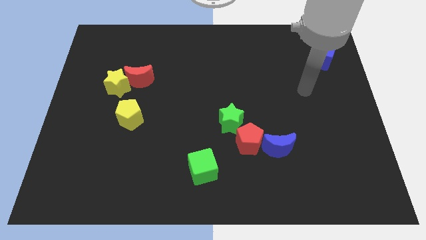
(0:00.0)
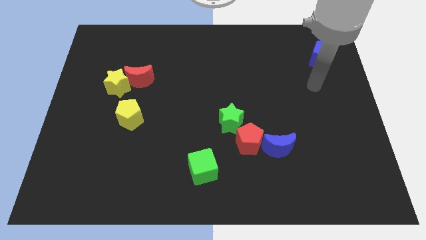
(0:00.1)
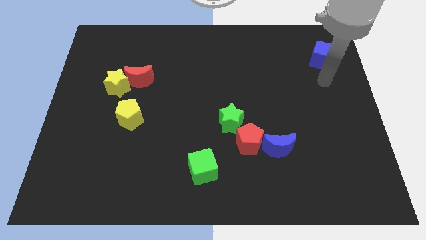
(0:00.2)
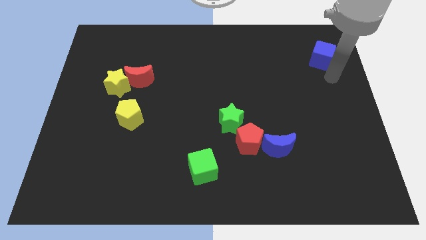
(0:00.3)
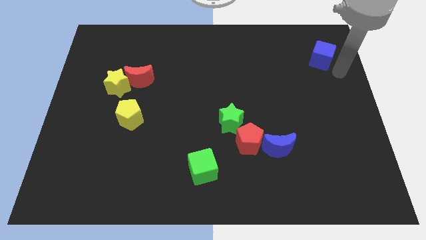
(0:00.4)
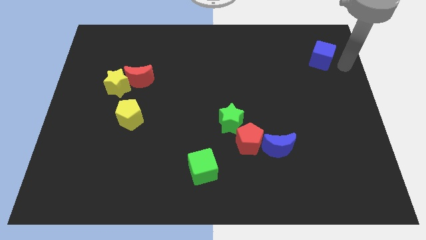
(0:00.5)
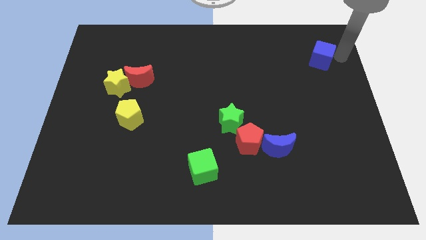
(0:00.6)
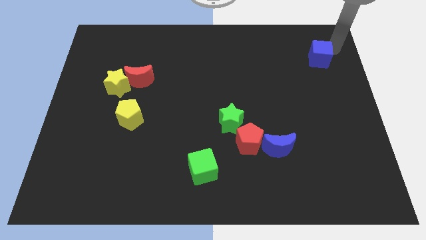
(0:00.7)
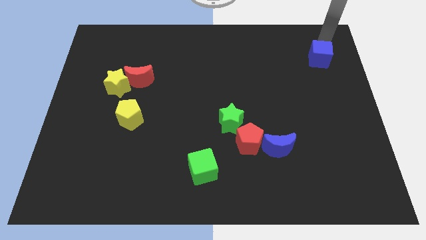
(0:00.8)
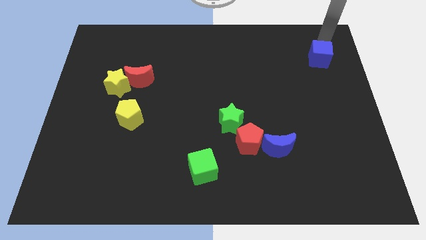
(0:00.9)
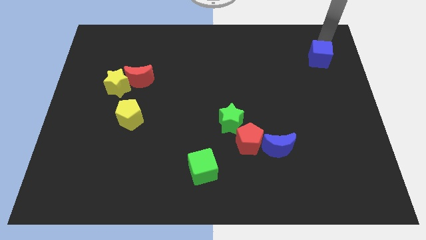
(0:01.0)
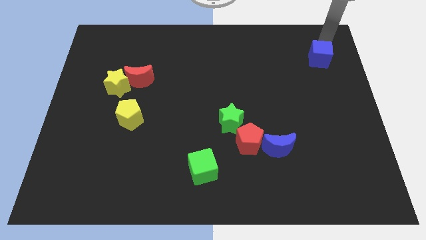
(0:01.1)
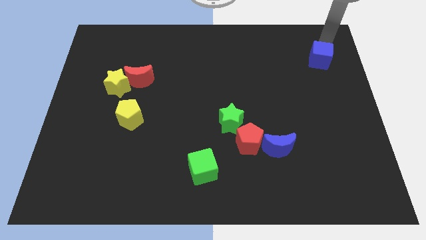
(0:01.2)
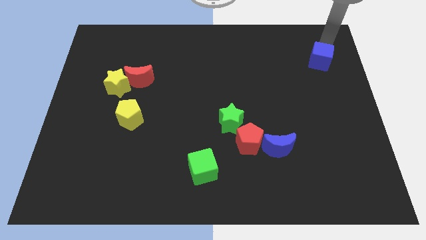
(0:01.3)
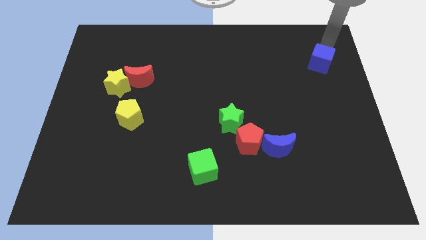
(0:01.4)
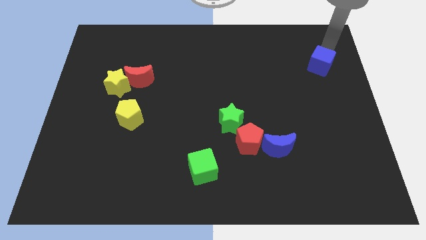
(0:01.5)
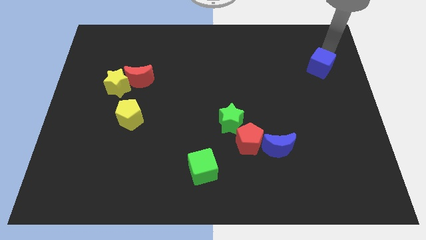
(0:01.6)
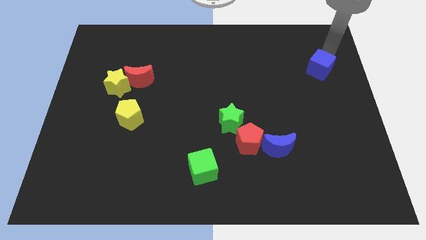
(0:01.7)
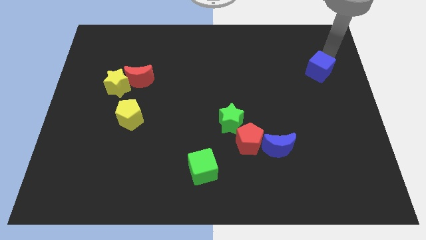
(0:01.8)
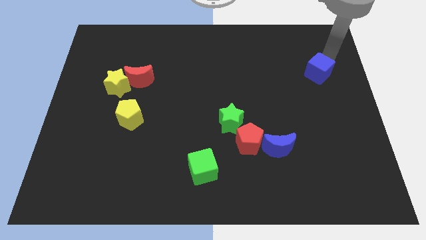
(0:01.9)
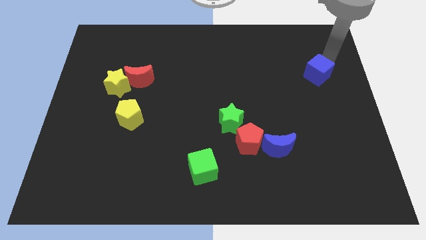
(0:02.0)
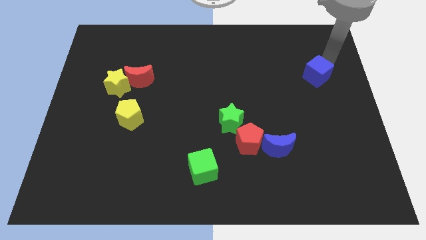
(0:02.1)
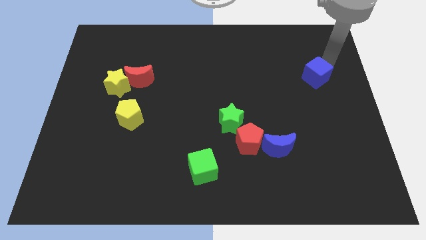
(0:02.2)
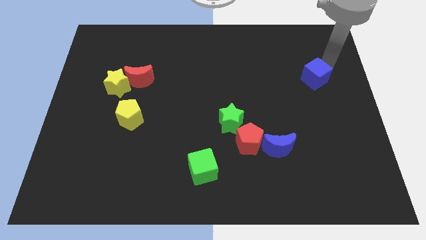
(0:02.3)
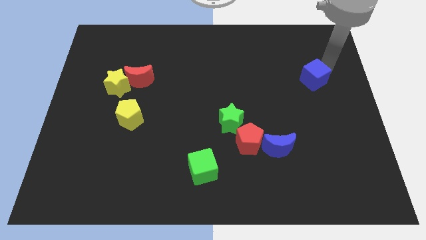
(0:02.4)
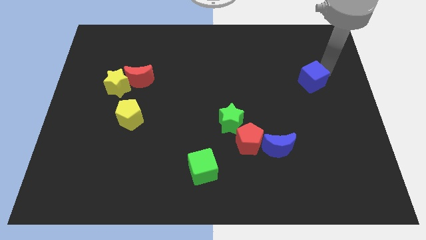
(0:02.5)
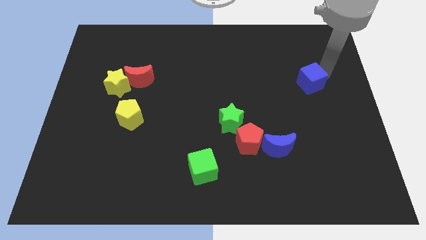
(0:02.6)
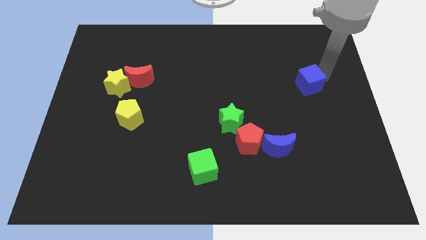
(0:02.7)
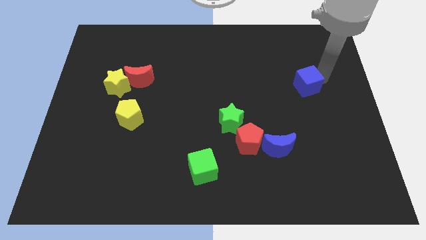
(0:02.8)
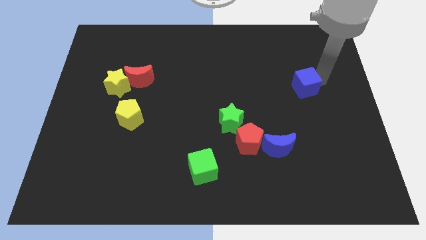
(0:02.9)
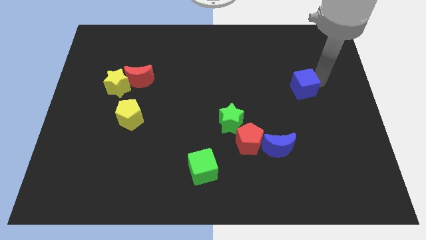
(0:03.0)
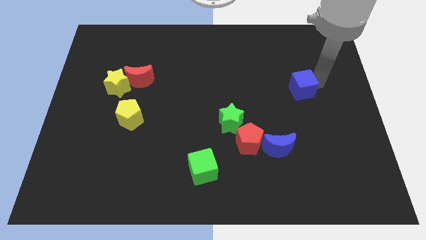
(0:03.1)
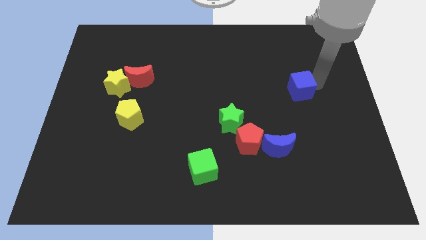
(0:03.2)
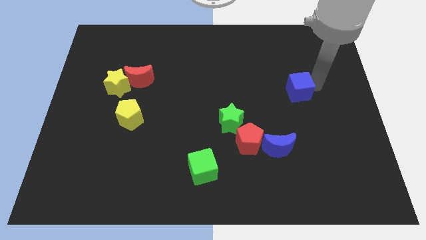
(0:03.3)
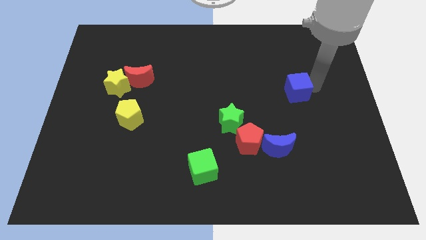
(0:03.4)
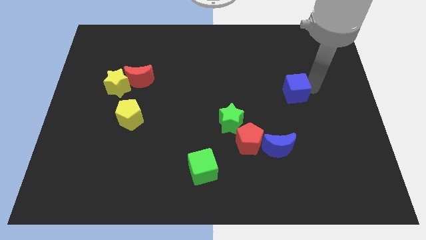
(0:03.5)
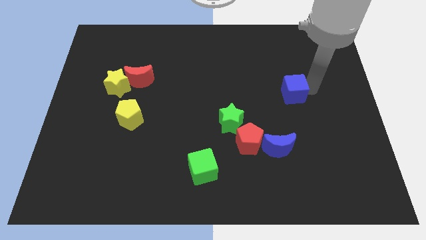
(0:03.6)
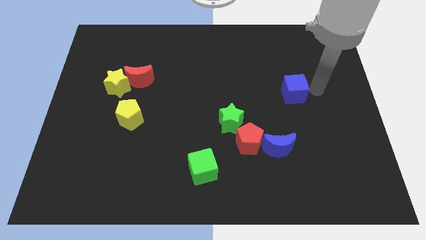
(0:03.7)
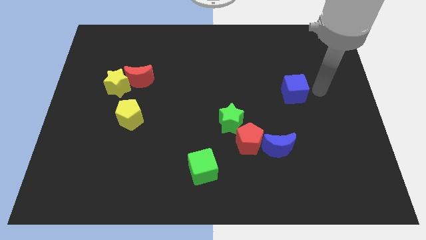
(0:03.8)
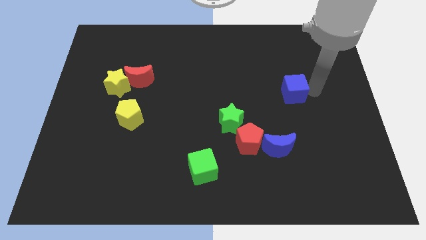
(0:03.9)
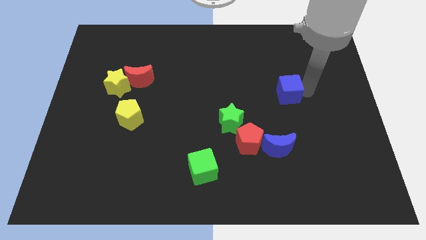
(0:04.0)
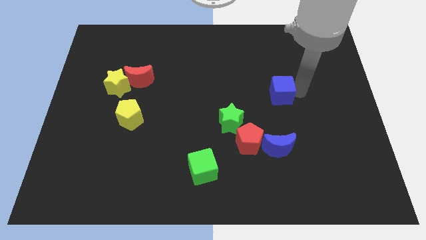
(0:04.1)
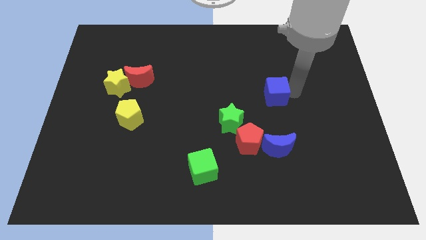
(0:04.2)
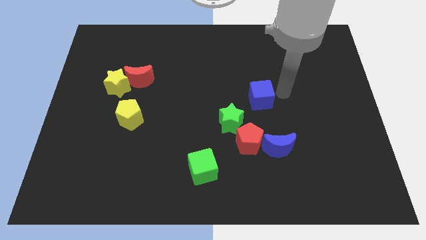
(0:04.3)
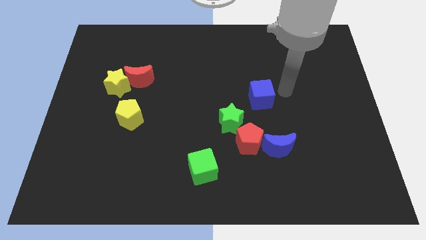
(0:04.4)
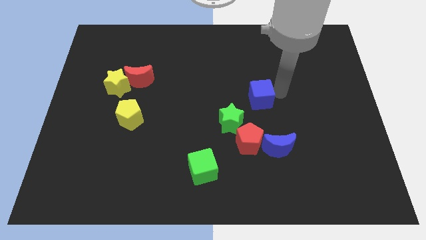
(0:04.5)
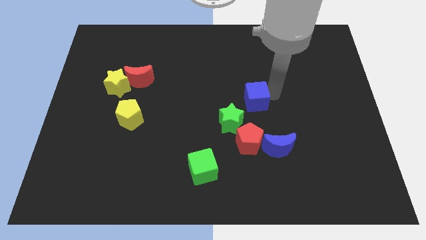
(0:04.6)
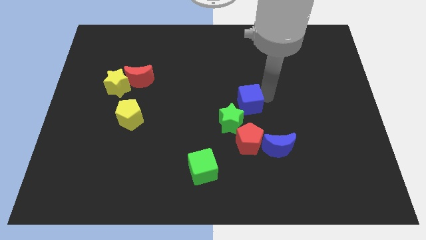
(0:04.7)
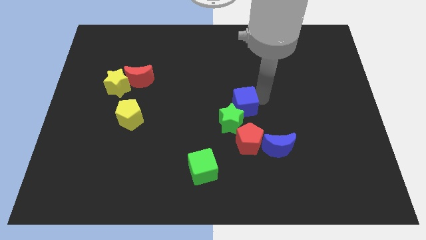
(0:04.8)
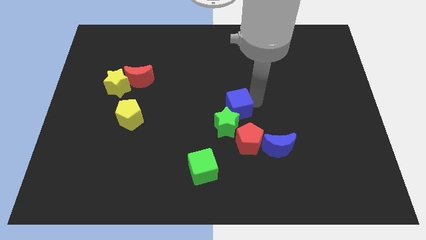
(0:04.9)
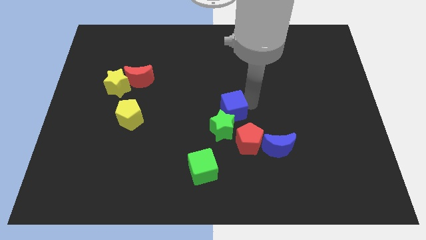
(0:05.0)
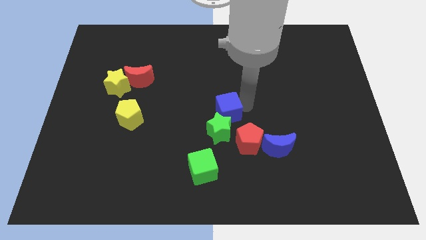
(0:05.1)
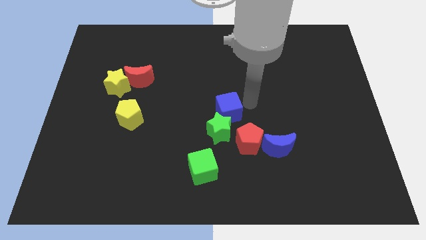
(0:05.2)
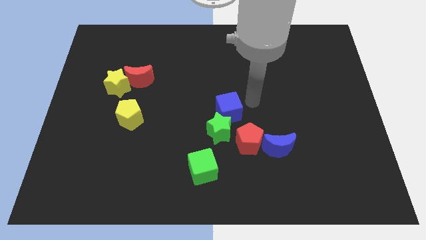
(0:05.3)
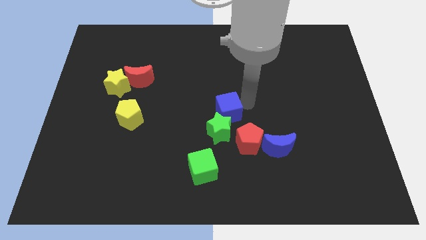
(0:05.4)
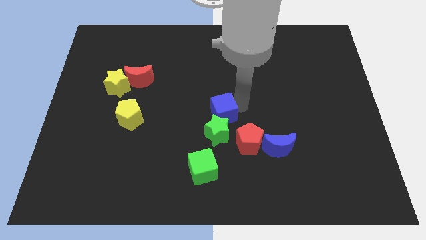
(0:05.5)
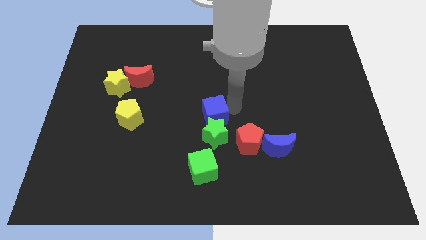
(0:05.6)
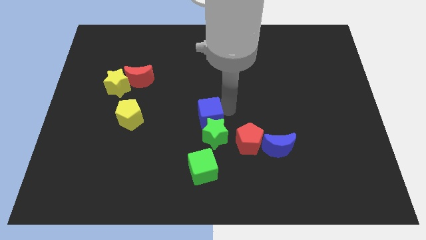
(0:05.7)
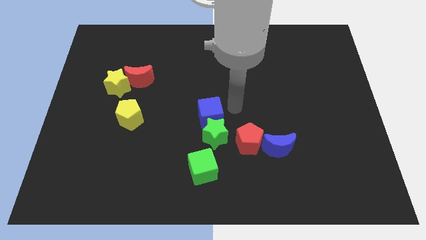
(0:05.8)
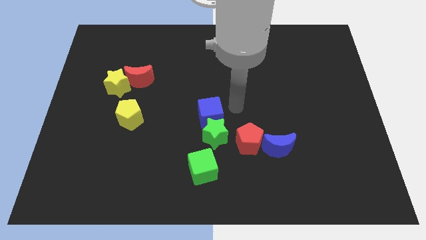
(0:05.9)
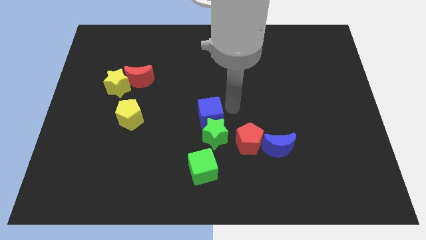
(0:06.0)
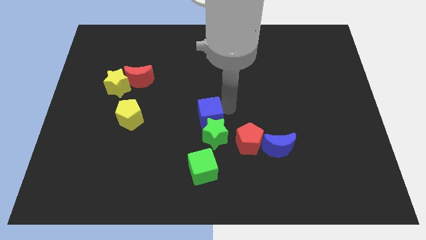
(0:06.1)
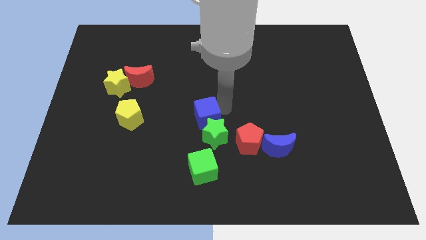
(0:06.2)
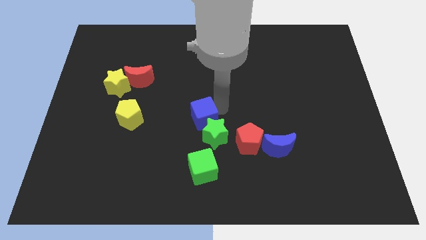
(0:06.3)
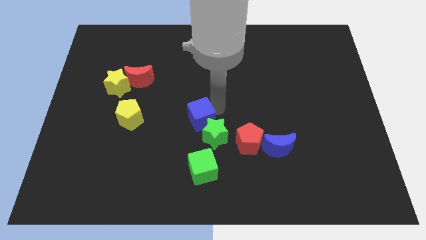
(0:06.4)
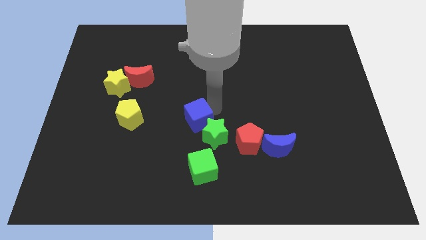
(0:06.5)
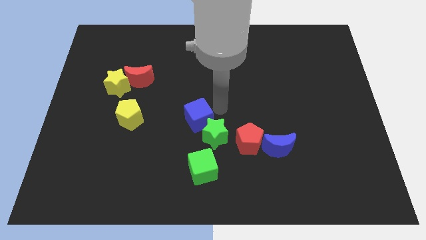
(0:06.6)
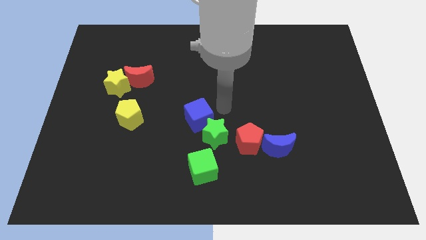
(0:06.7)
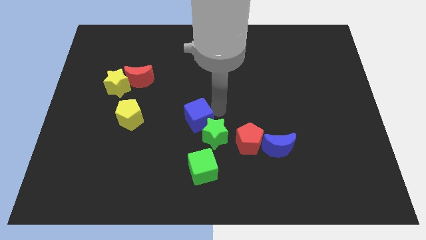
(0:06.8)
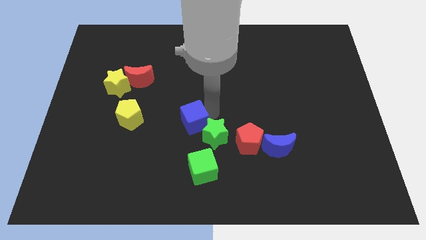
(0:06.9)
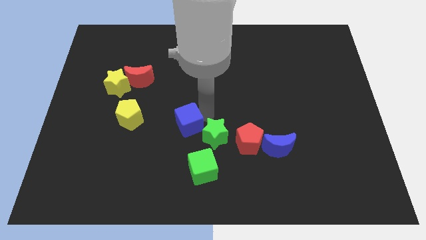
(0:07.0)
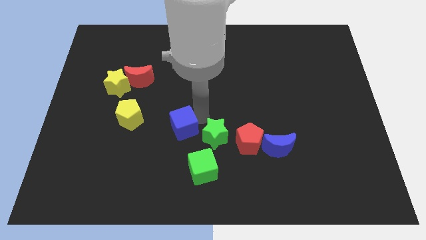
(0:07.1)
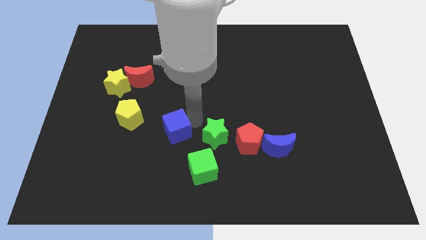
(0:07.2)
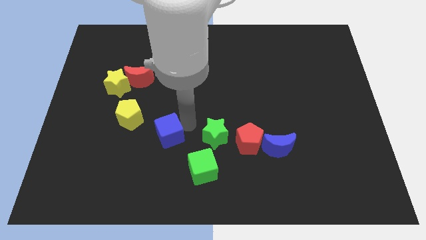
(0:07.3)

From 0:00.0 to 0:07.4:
push the blue cube diagonally down and to the right of the yellow pentagon

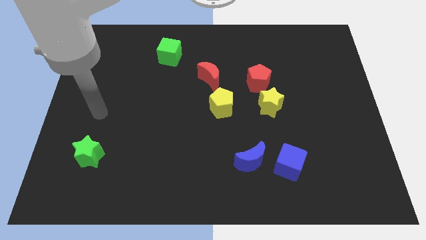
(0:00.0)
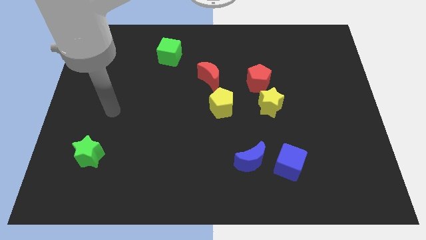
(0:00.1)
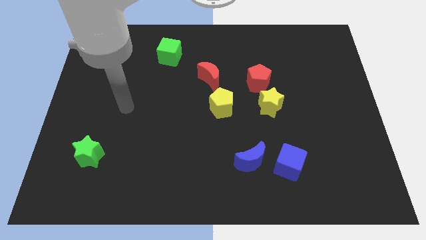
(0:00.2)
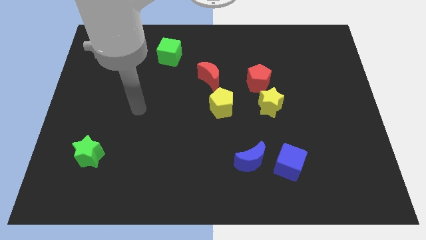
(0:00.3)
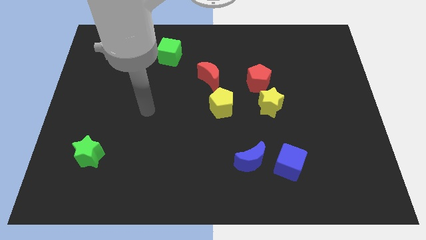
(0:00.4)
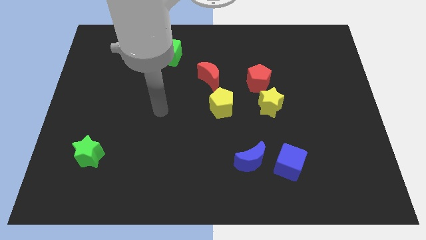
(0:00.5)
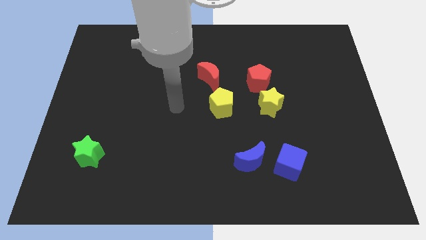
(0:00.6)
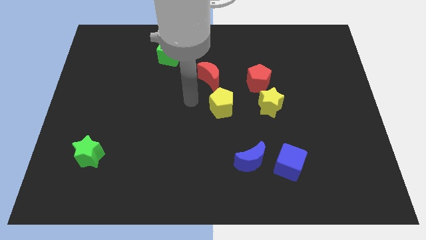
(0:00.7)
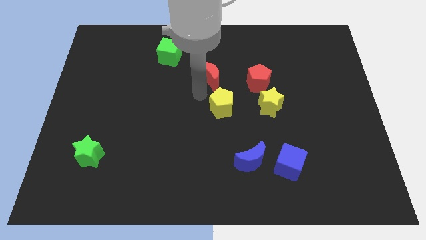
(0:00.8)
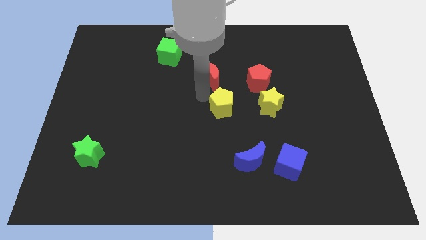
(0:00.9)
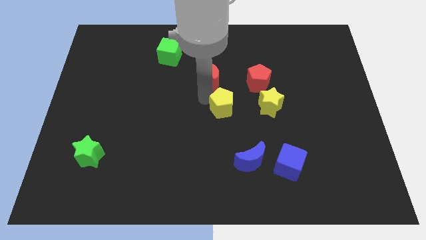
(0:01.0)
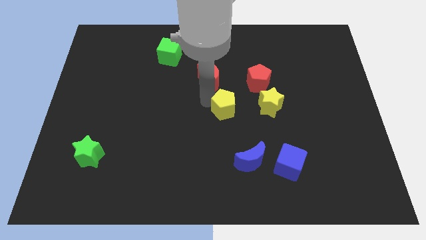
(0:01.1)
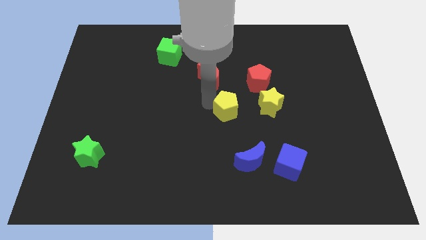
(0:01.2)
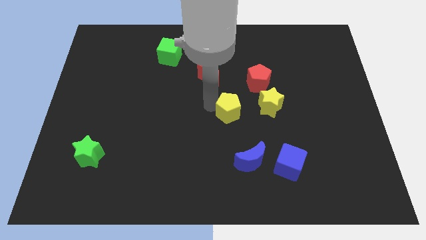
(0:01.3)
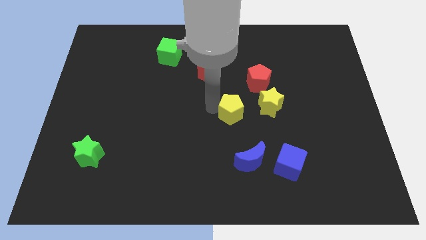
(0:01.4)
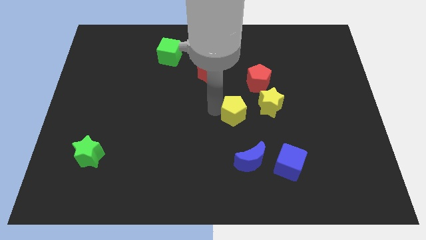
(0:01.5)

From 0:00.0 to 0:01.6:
put the yellow pentagon to the bottom left side of the yellow star
